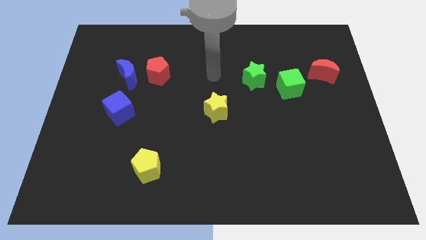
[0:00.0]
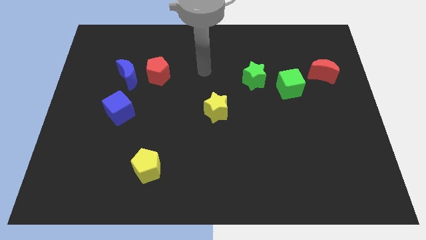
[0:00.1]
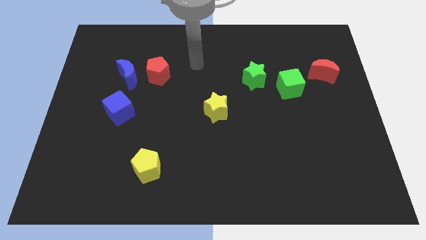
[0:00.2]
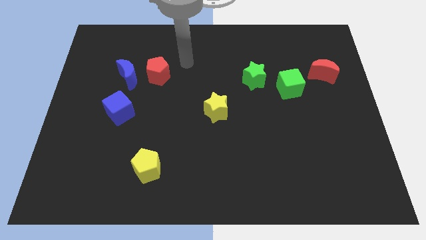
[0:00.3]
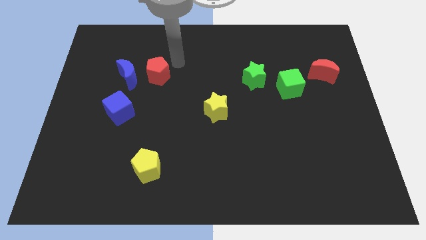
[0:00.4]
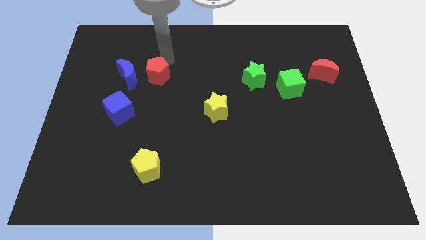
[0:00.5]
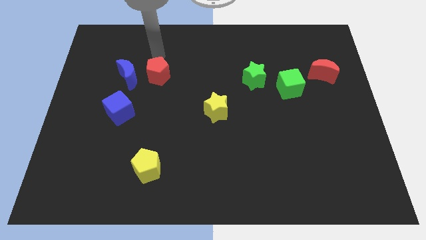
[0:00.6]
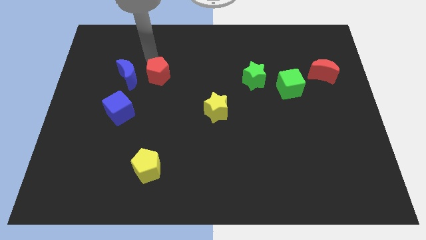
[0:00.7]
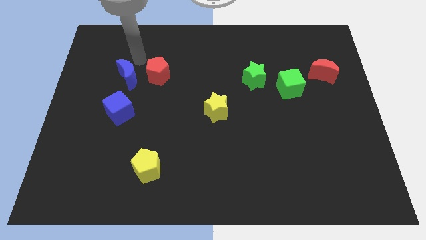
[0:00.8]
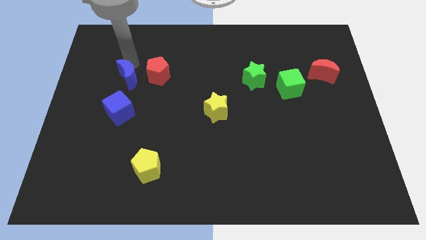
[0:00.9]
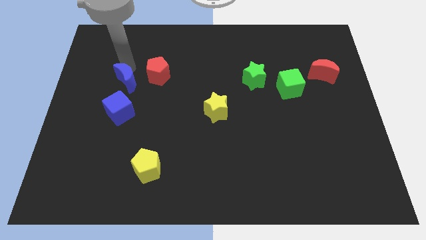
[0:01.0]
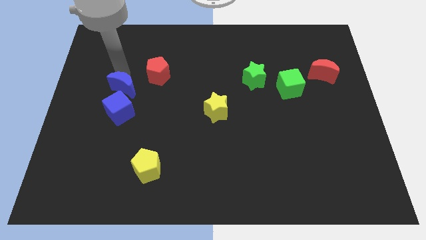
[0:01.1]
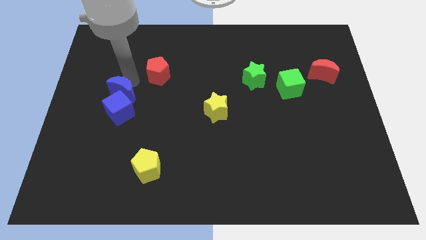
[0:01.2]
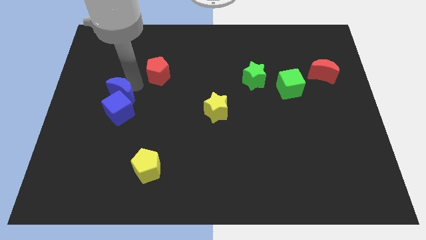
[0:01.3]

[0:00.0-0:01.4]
pull the red pentagon apart from the blue moon

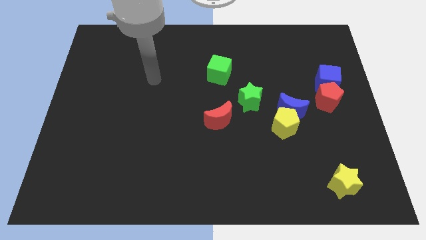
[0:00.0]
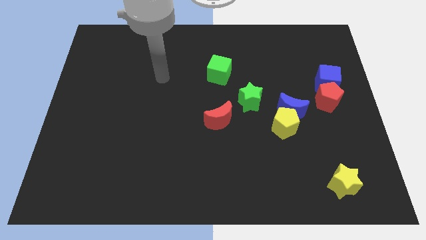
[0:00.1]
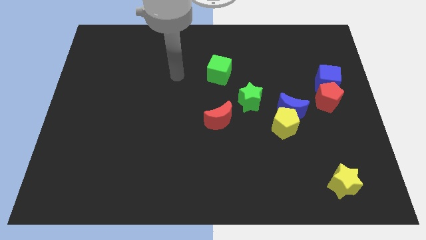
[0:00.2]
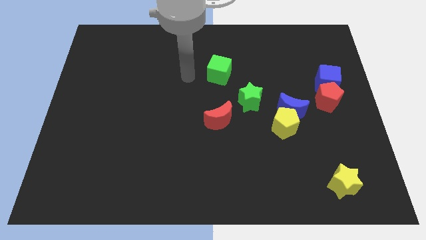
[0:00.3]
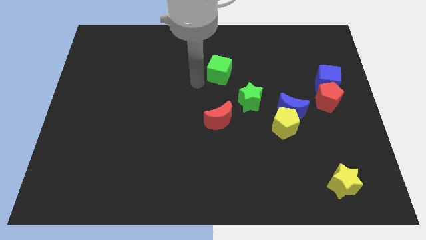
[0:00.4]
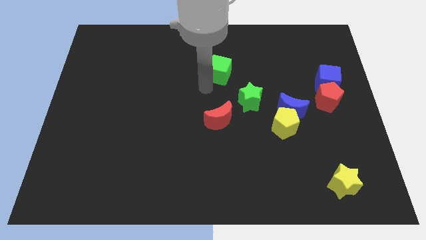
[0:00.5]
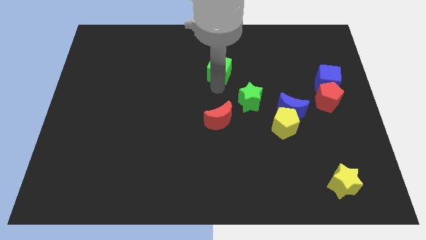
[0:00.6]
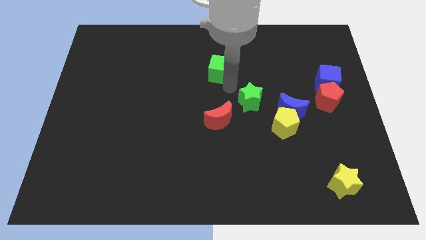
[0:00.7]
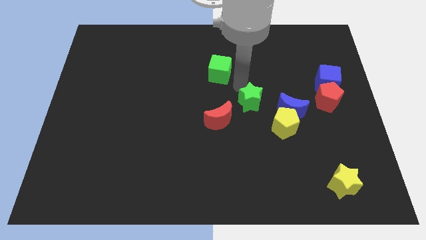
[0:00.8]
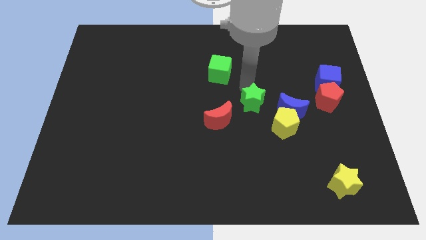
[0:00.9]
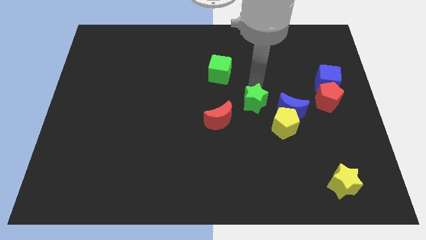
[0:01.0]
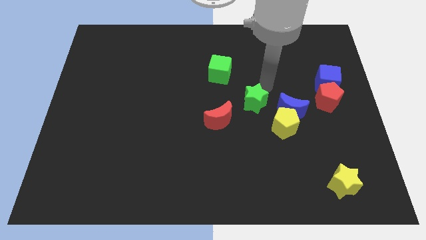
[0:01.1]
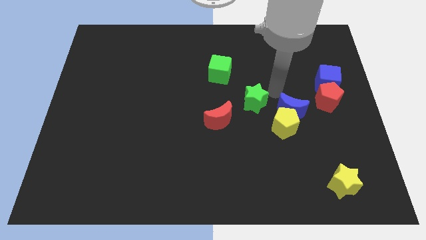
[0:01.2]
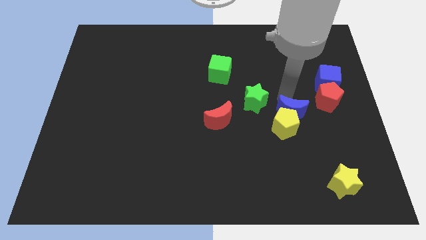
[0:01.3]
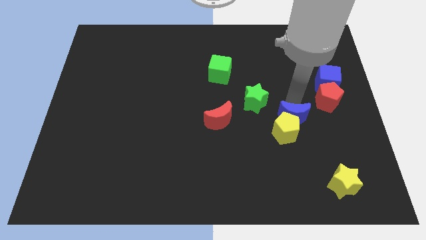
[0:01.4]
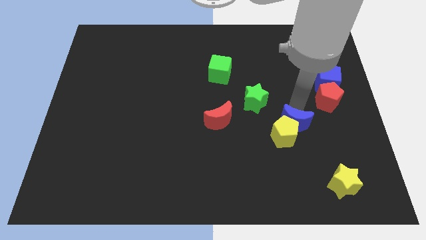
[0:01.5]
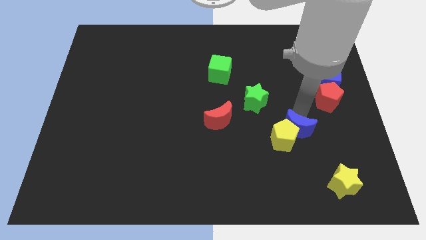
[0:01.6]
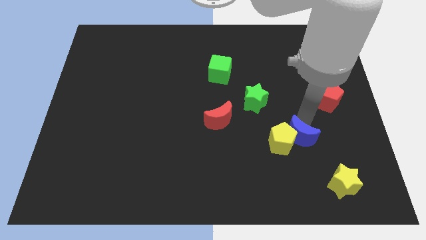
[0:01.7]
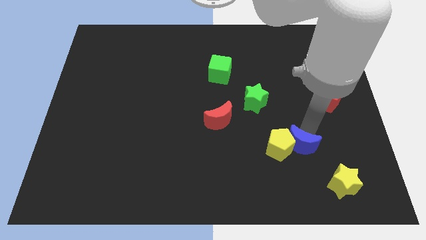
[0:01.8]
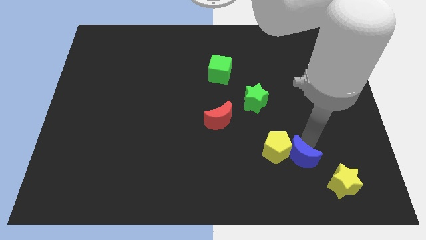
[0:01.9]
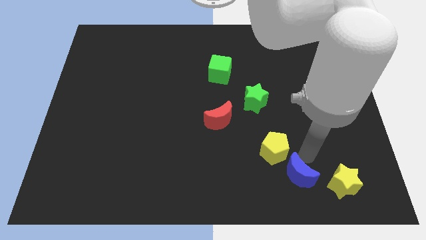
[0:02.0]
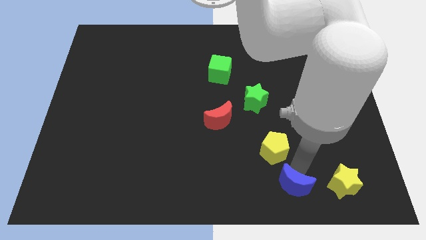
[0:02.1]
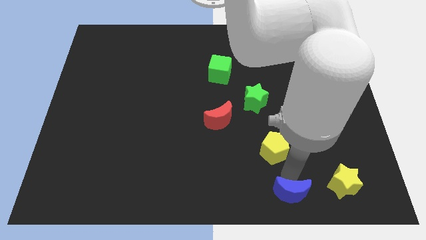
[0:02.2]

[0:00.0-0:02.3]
pull the yellow pentagon apart from the blue moon

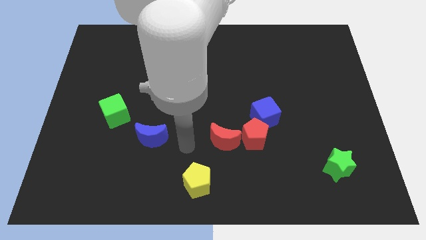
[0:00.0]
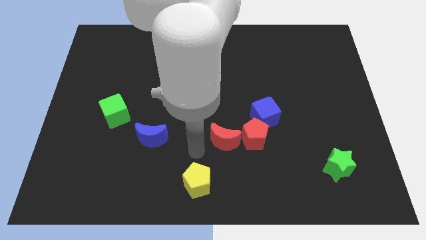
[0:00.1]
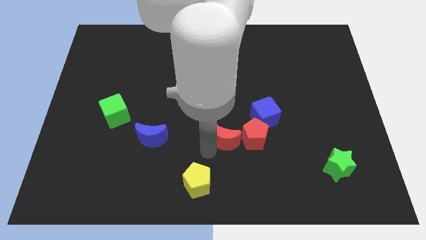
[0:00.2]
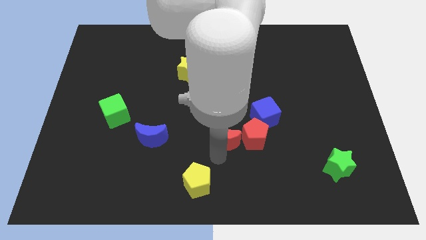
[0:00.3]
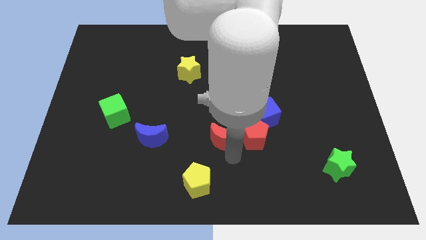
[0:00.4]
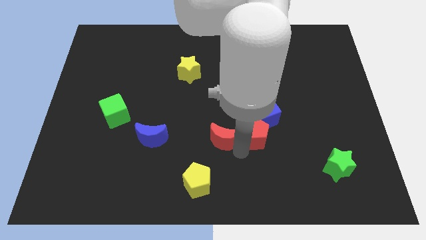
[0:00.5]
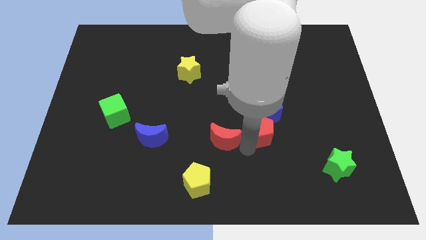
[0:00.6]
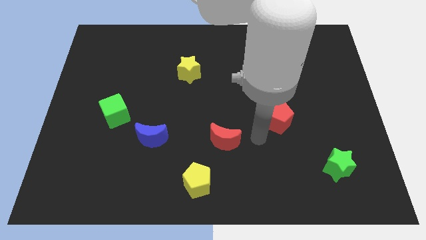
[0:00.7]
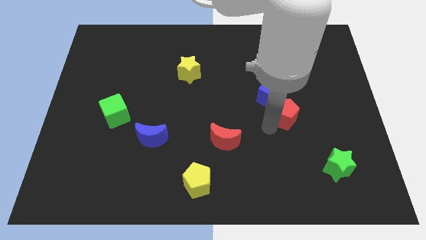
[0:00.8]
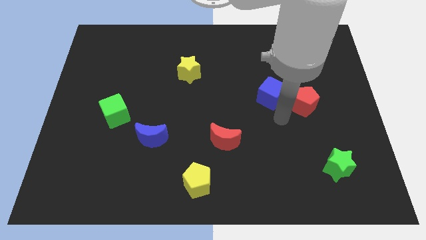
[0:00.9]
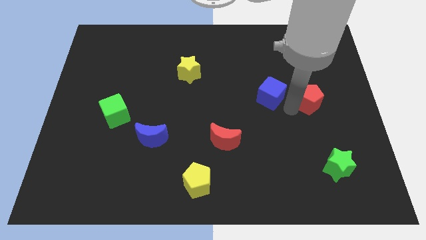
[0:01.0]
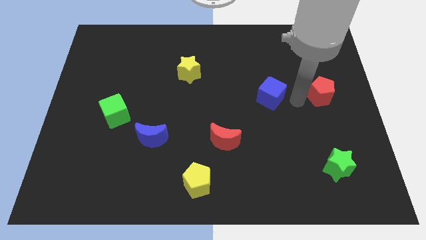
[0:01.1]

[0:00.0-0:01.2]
pull the blue cube apart from the red pentagon

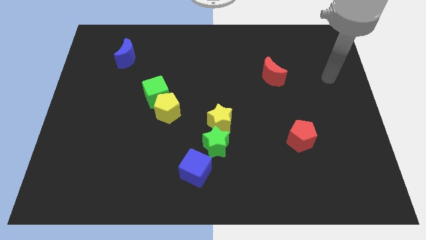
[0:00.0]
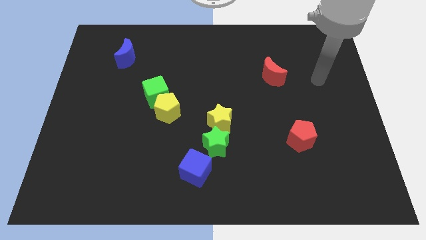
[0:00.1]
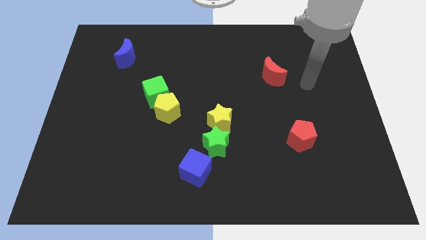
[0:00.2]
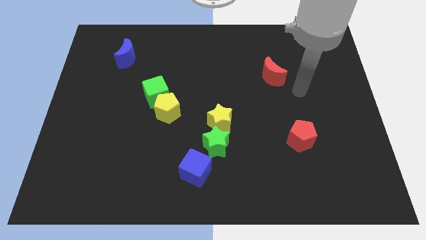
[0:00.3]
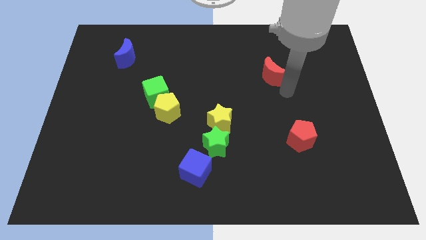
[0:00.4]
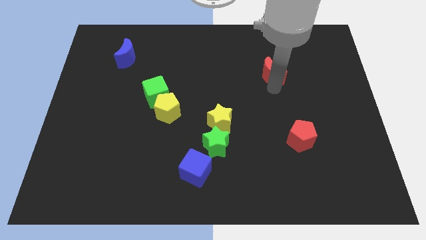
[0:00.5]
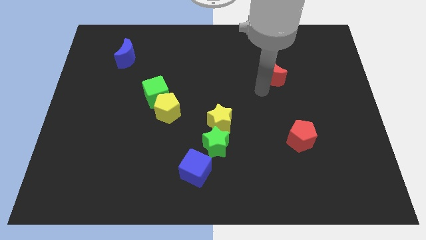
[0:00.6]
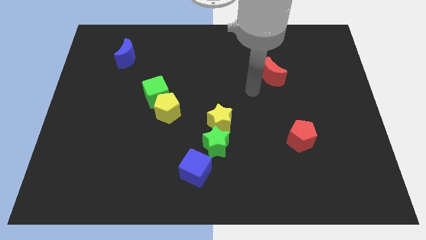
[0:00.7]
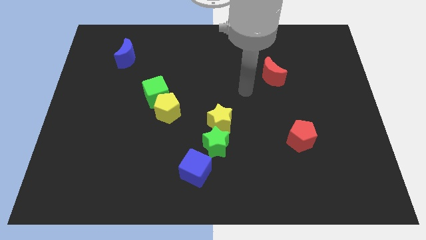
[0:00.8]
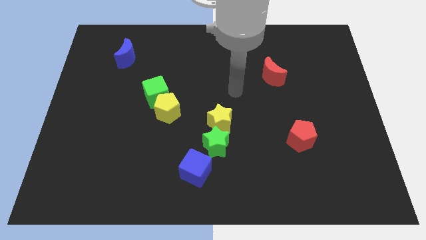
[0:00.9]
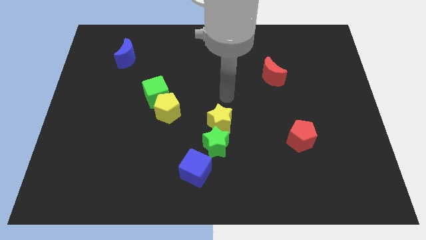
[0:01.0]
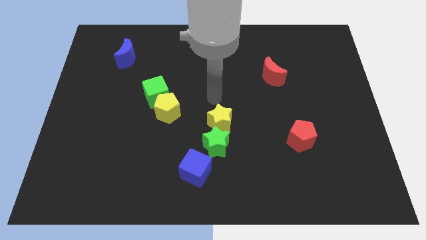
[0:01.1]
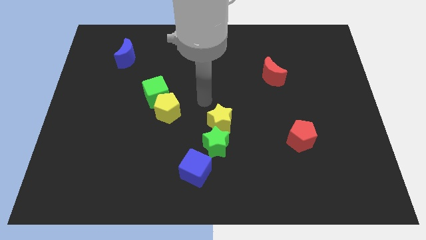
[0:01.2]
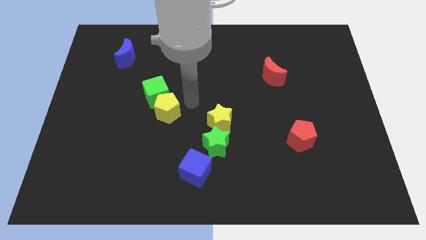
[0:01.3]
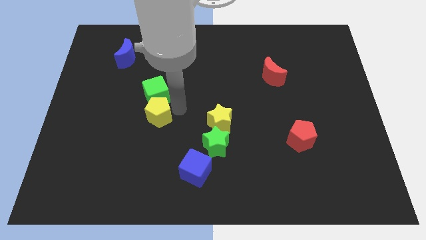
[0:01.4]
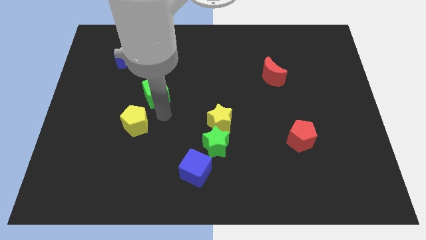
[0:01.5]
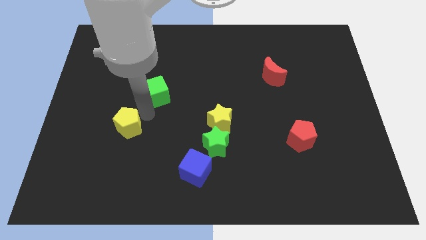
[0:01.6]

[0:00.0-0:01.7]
separate the green cube from the yellow pentagon

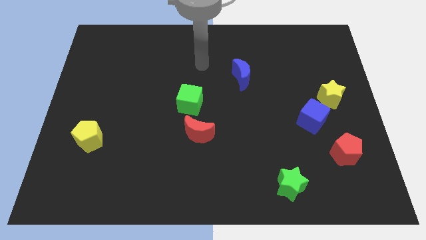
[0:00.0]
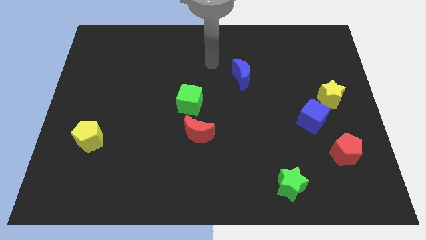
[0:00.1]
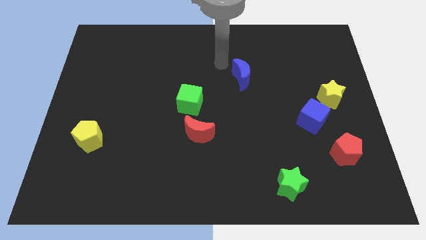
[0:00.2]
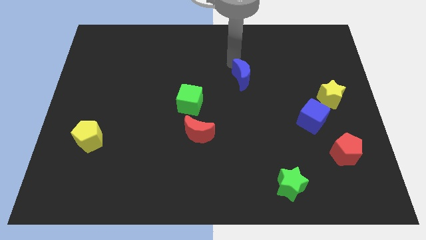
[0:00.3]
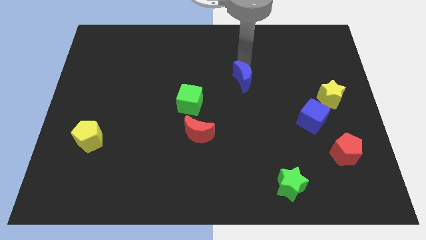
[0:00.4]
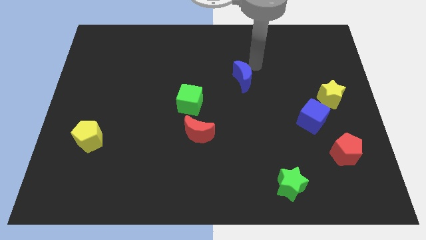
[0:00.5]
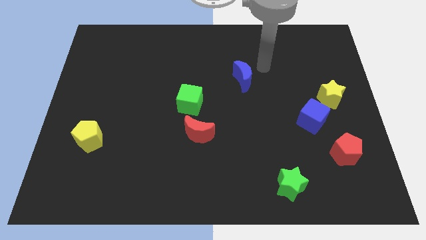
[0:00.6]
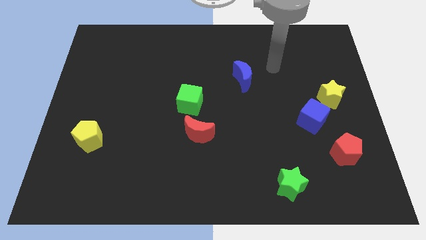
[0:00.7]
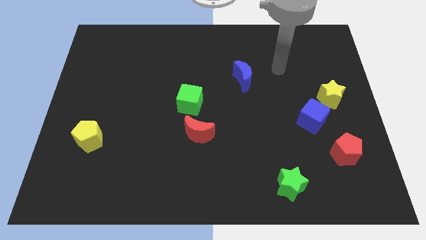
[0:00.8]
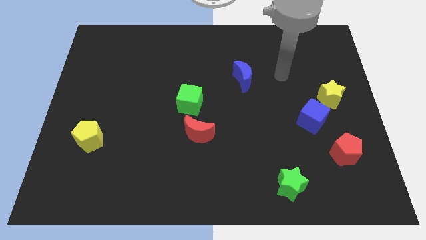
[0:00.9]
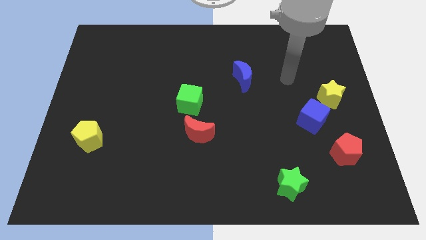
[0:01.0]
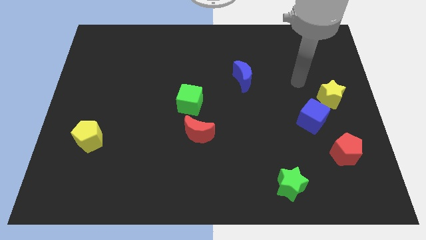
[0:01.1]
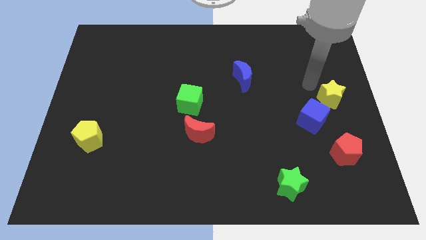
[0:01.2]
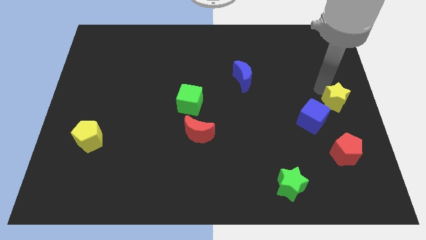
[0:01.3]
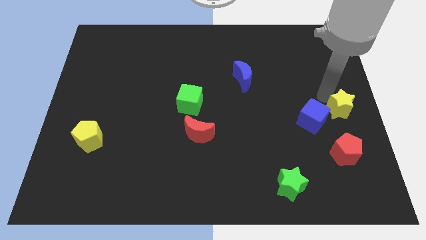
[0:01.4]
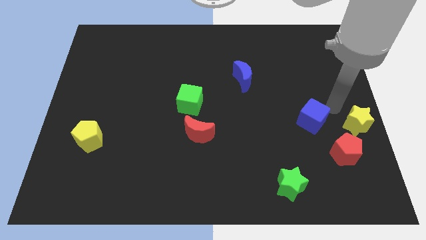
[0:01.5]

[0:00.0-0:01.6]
pull the blue cube apart from the yellow star

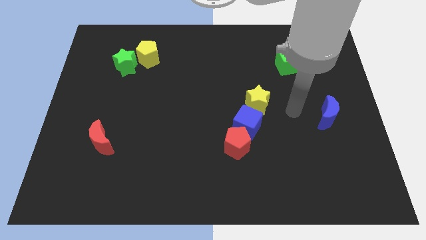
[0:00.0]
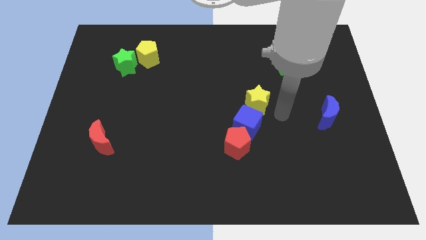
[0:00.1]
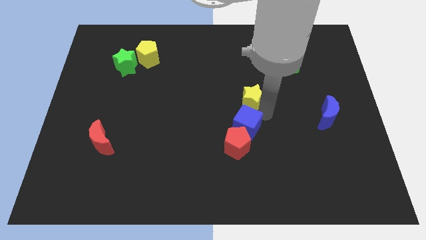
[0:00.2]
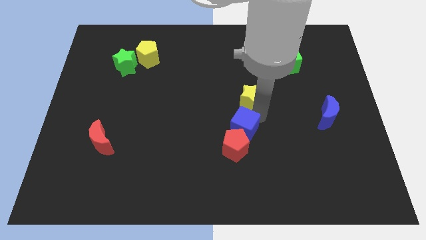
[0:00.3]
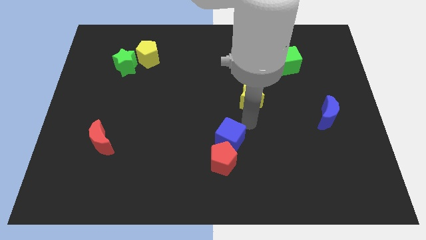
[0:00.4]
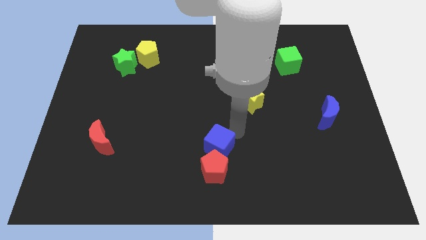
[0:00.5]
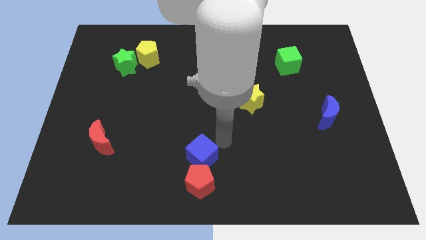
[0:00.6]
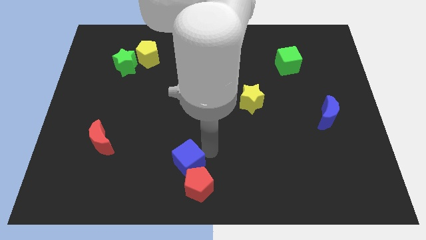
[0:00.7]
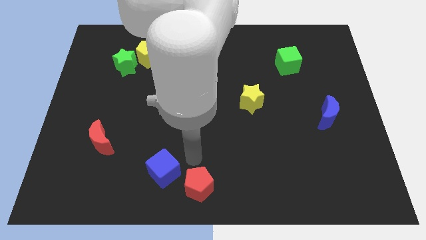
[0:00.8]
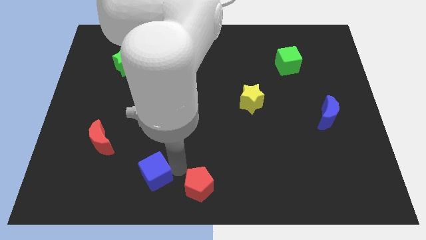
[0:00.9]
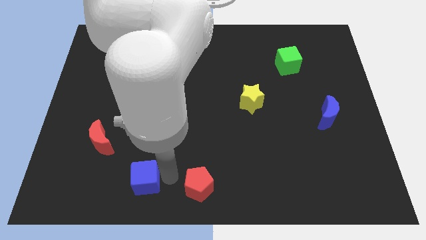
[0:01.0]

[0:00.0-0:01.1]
pull the red pentagon apart from the blue cube

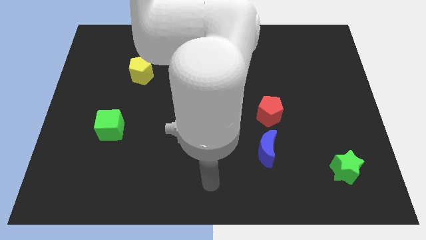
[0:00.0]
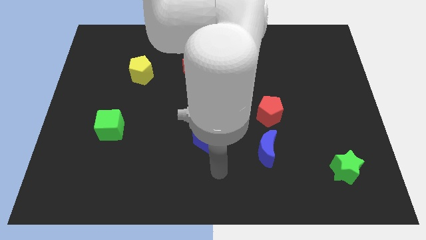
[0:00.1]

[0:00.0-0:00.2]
separate the red pentagon from the blue moon
